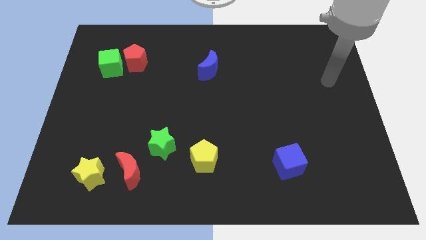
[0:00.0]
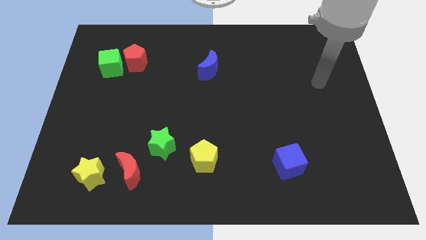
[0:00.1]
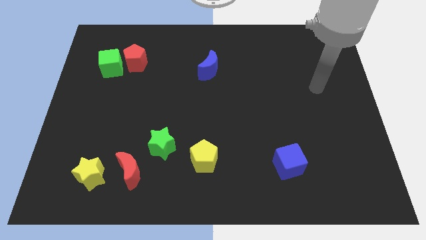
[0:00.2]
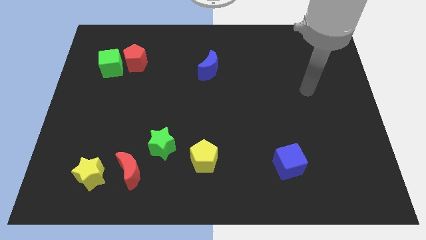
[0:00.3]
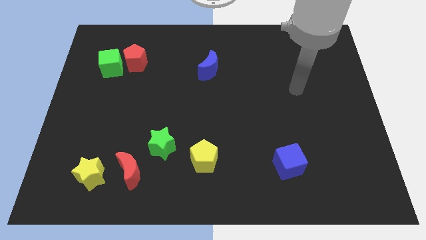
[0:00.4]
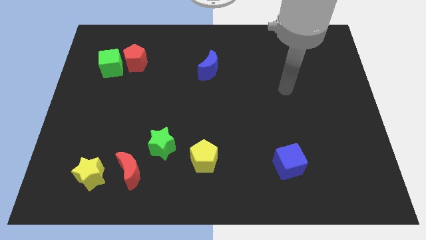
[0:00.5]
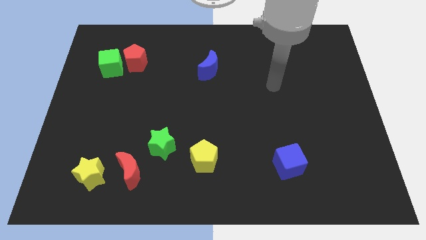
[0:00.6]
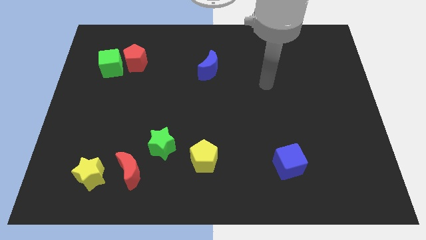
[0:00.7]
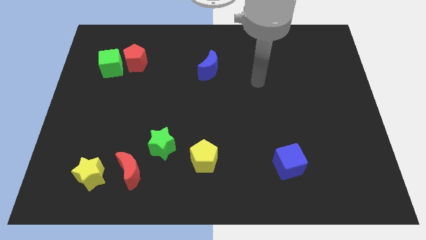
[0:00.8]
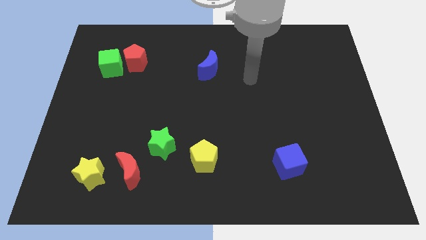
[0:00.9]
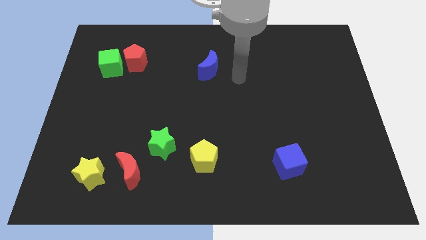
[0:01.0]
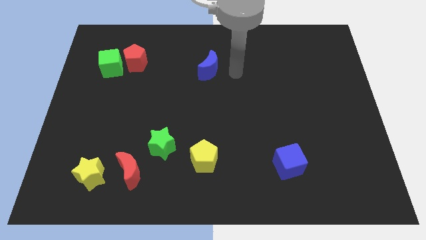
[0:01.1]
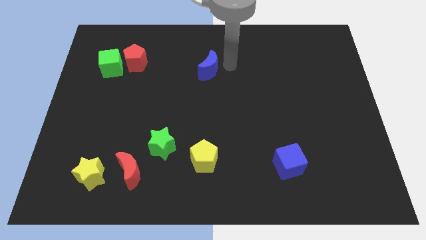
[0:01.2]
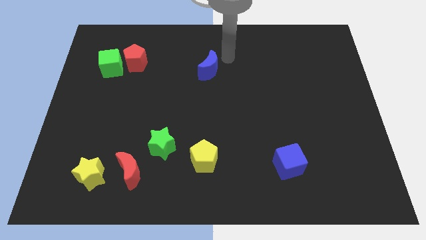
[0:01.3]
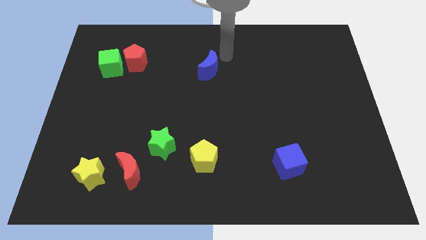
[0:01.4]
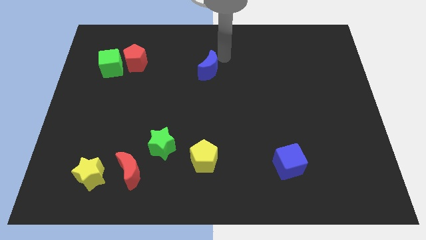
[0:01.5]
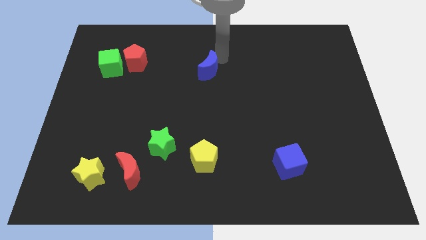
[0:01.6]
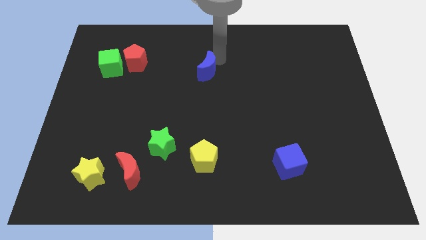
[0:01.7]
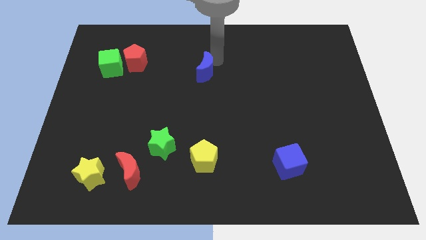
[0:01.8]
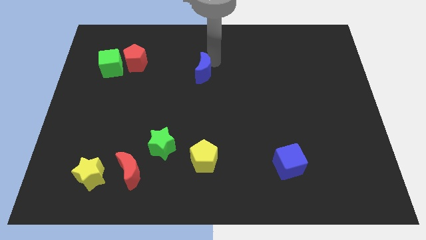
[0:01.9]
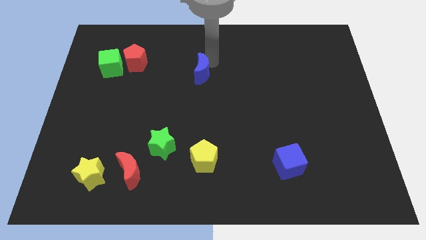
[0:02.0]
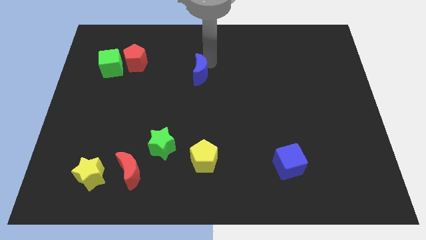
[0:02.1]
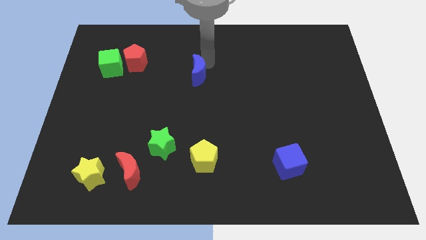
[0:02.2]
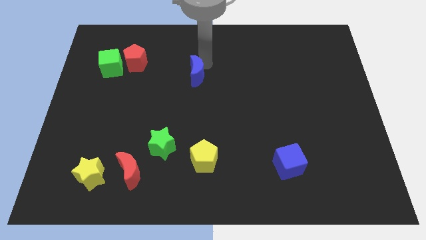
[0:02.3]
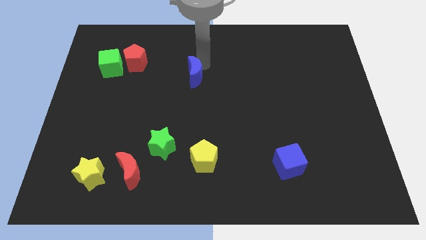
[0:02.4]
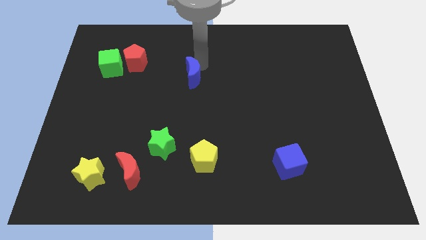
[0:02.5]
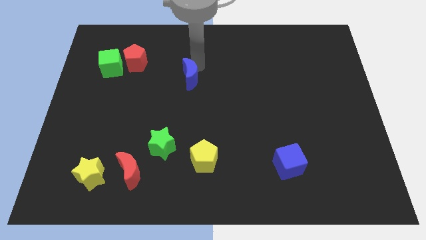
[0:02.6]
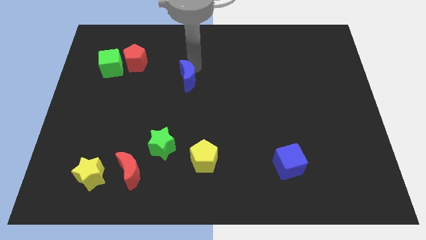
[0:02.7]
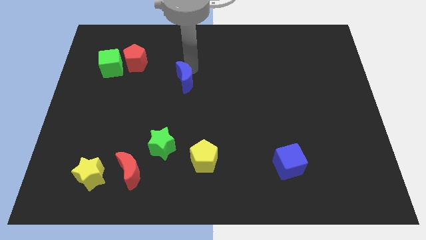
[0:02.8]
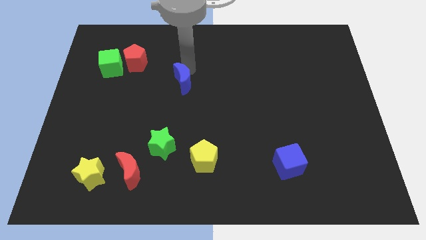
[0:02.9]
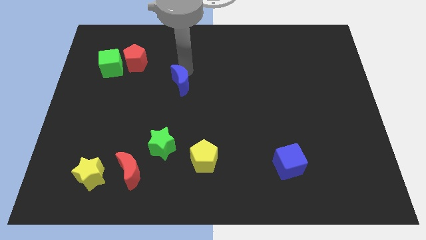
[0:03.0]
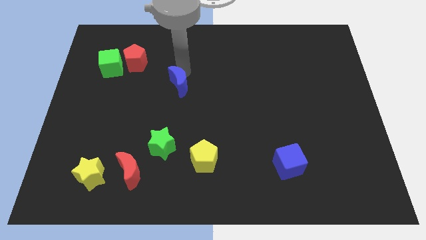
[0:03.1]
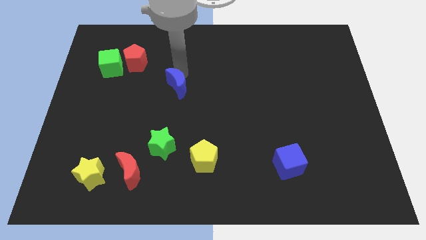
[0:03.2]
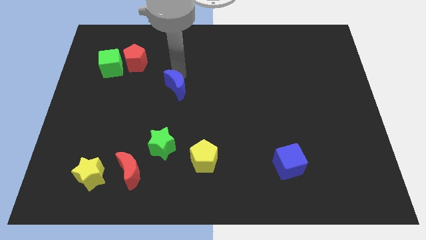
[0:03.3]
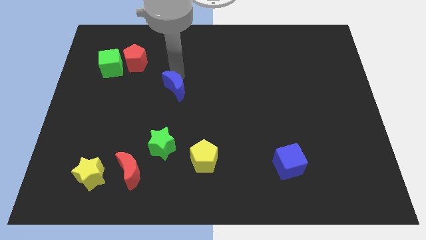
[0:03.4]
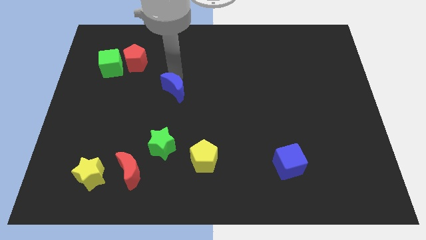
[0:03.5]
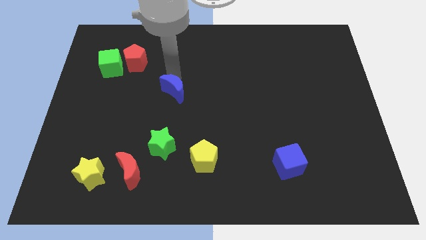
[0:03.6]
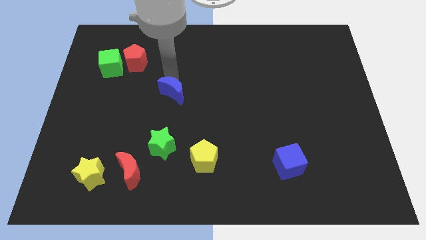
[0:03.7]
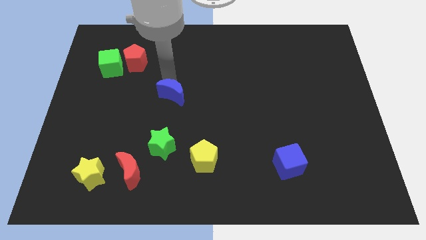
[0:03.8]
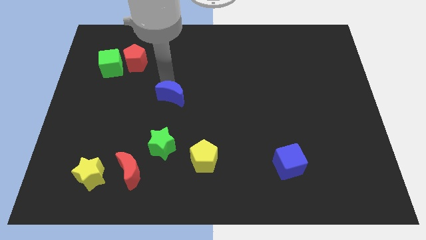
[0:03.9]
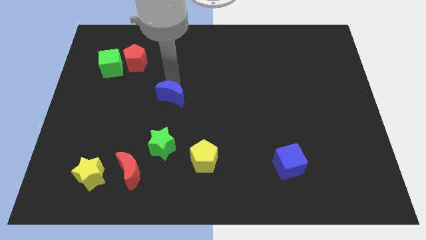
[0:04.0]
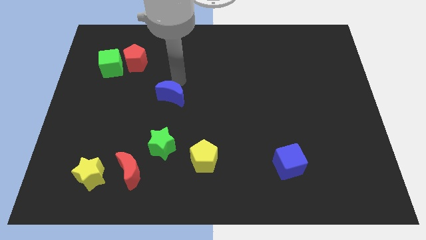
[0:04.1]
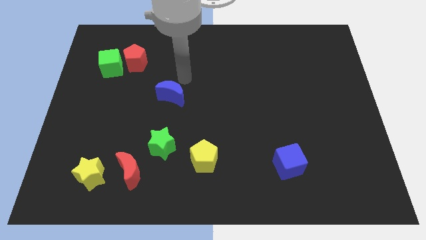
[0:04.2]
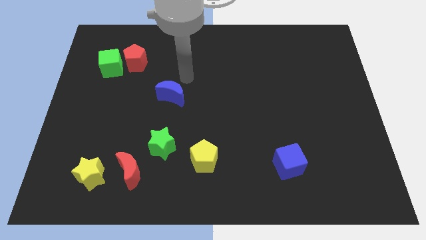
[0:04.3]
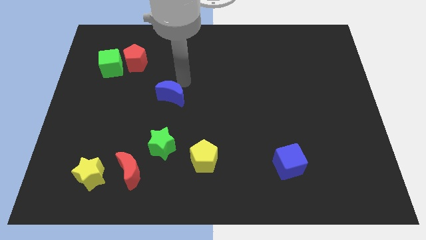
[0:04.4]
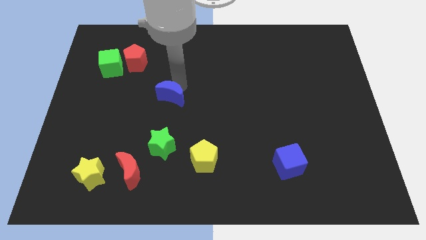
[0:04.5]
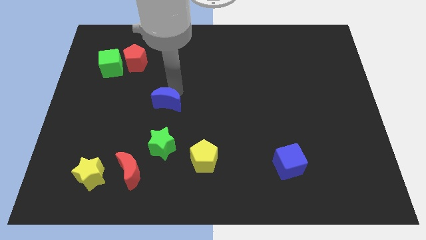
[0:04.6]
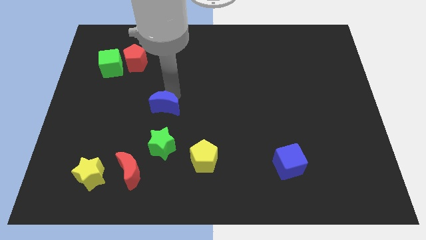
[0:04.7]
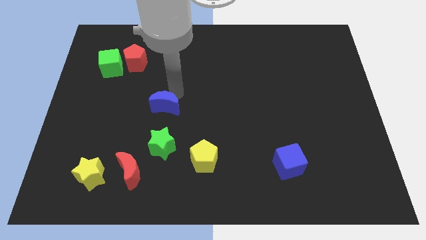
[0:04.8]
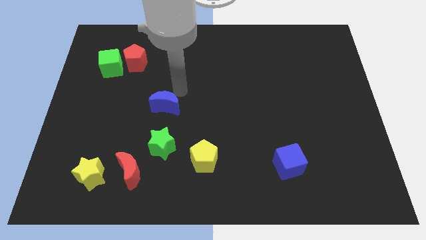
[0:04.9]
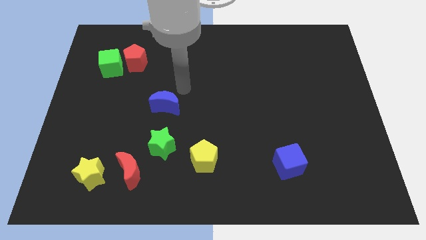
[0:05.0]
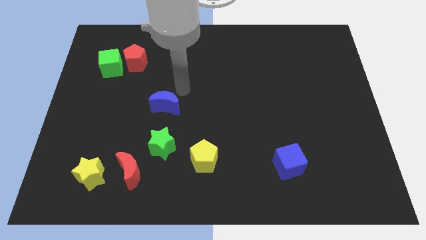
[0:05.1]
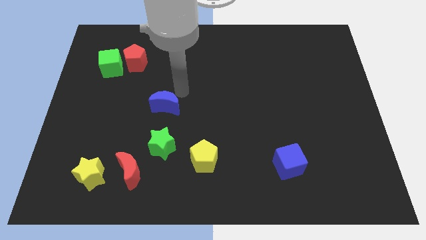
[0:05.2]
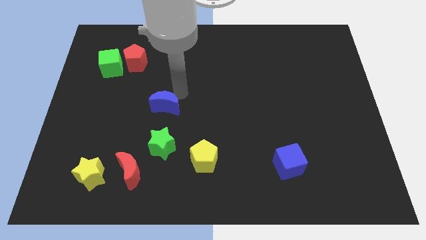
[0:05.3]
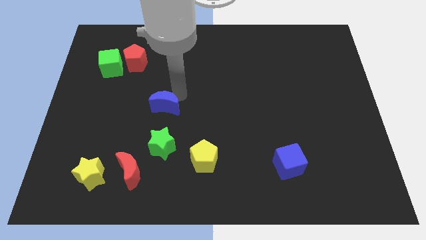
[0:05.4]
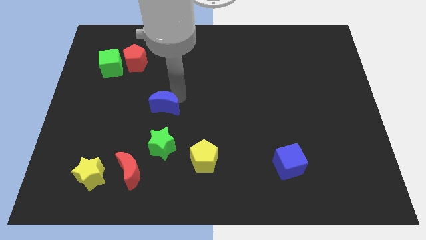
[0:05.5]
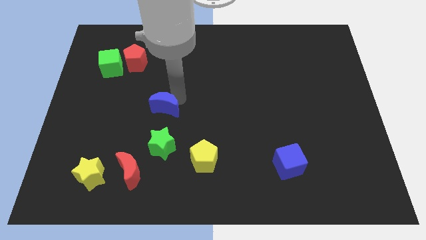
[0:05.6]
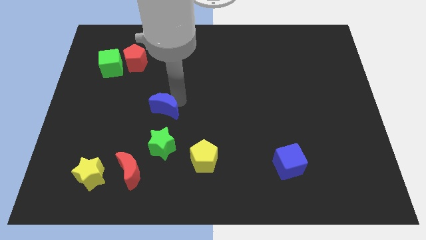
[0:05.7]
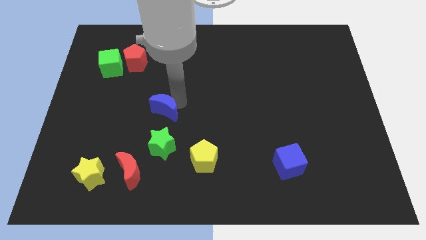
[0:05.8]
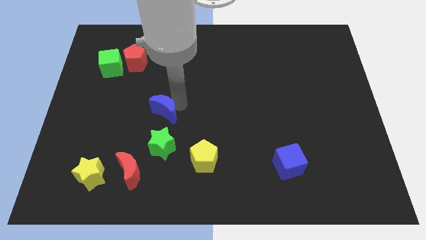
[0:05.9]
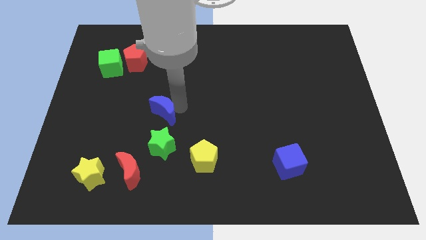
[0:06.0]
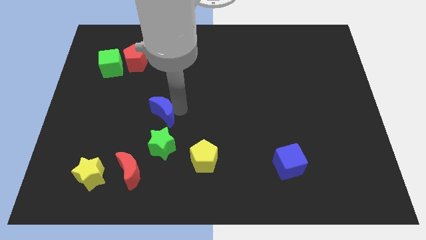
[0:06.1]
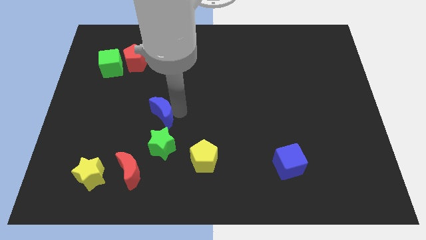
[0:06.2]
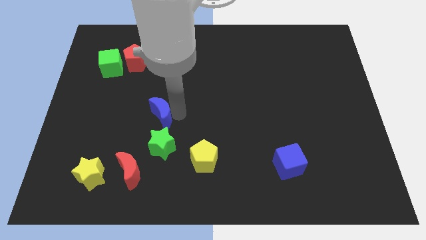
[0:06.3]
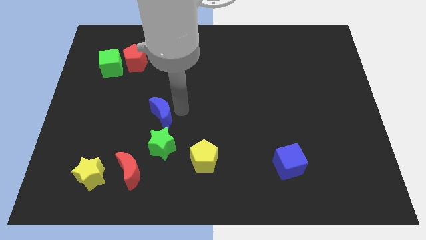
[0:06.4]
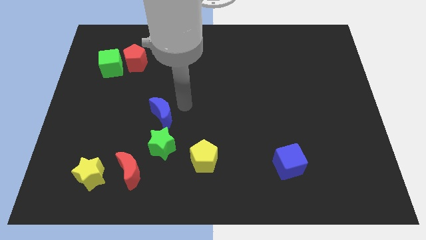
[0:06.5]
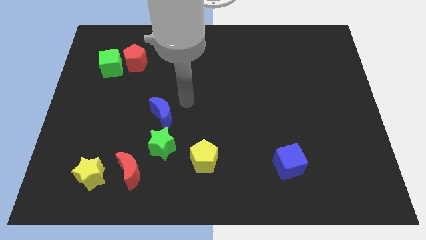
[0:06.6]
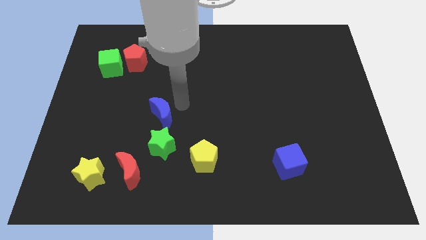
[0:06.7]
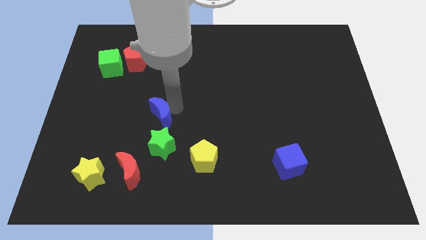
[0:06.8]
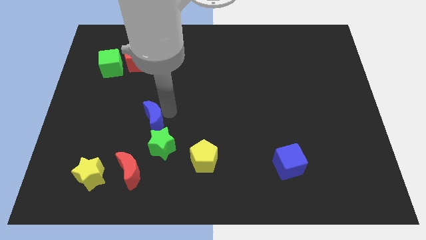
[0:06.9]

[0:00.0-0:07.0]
push the blue moon above the red moon
